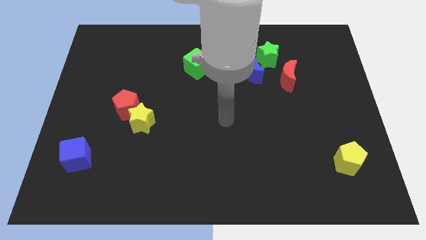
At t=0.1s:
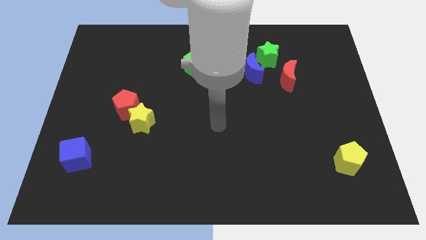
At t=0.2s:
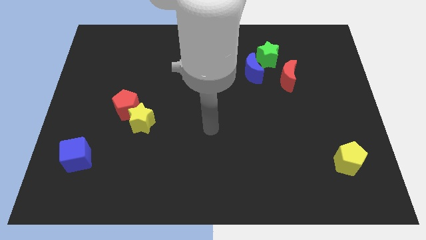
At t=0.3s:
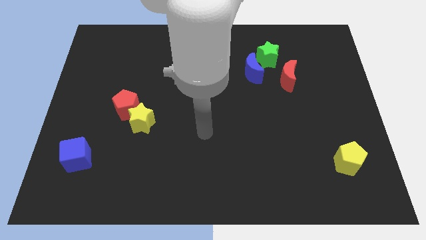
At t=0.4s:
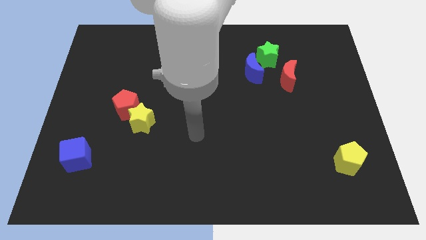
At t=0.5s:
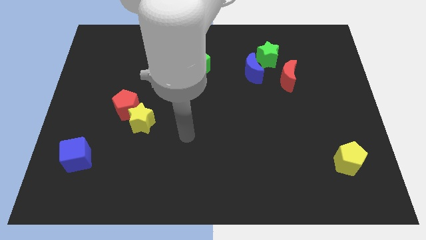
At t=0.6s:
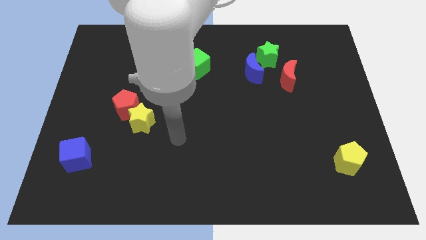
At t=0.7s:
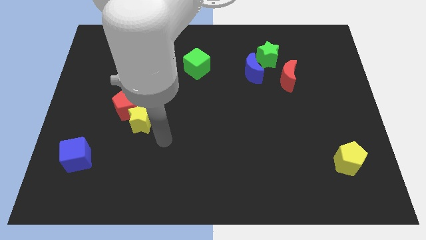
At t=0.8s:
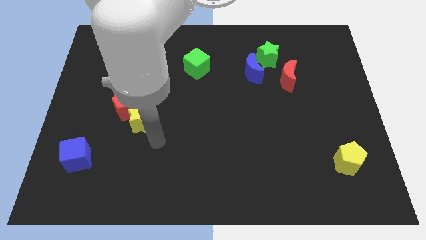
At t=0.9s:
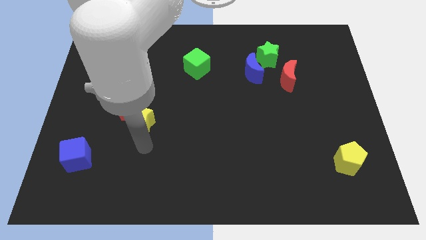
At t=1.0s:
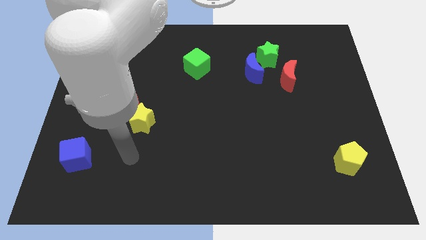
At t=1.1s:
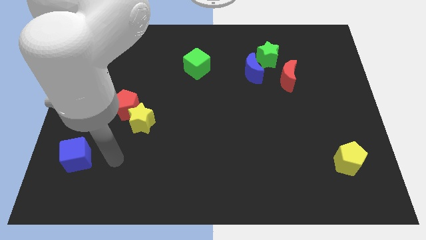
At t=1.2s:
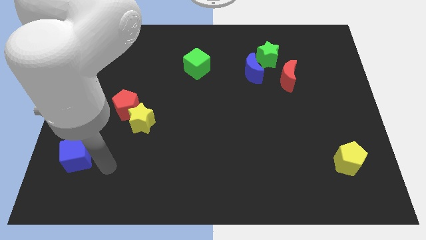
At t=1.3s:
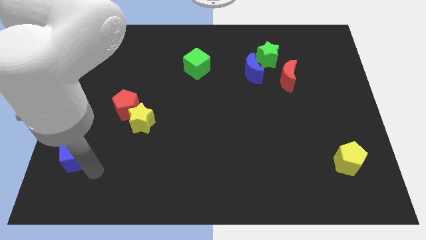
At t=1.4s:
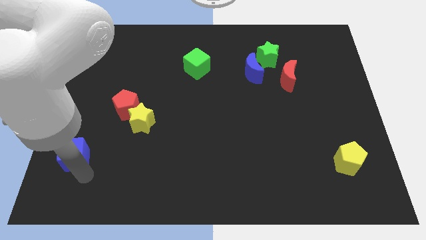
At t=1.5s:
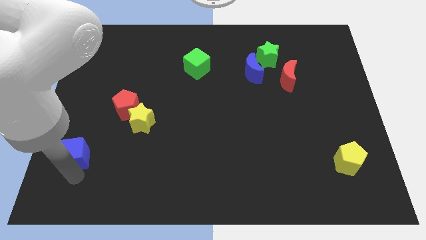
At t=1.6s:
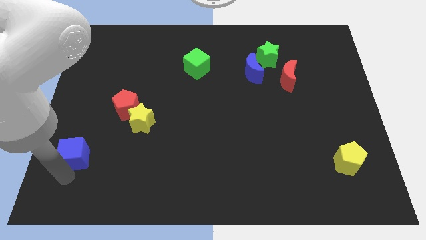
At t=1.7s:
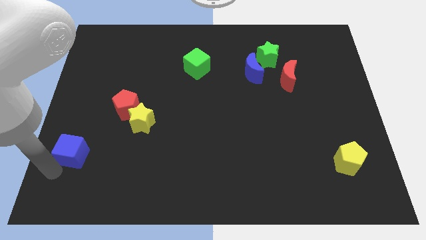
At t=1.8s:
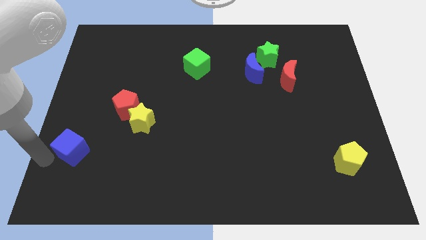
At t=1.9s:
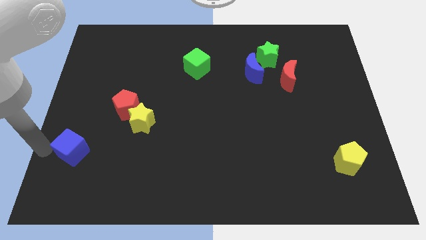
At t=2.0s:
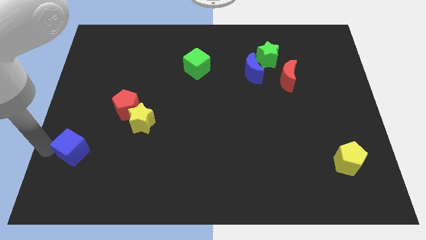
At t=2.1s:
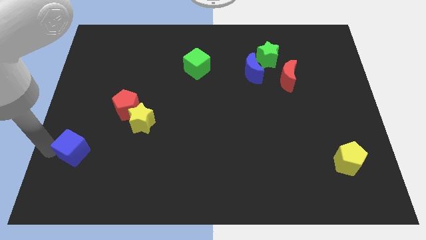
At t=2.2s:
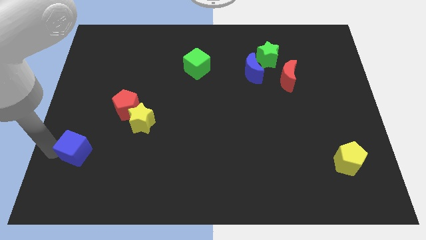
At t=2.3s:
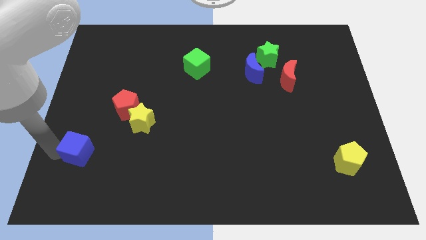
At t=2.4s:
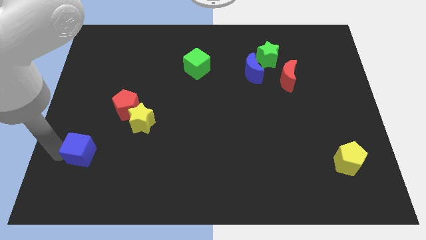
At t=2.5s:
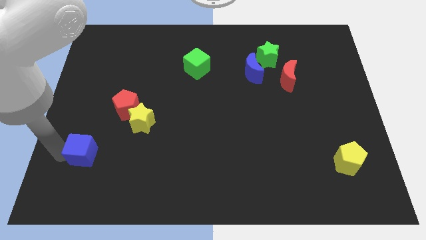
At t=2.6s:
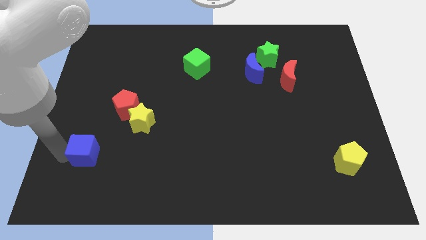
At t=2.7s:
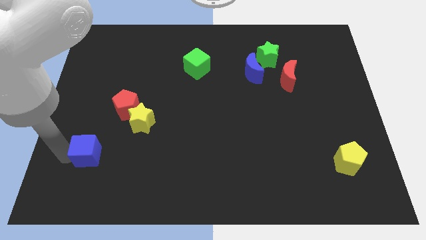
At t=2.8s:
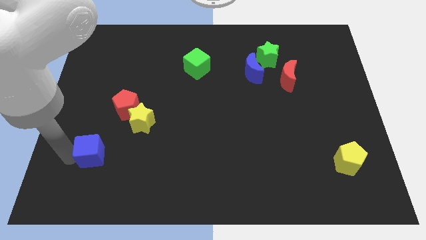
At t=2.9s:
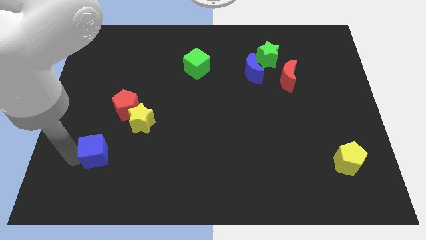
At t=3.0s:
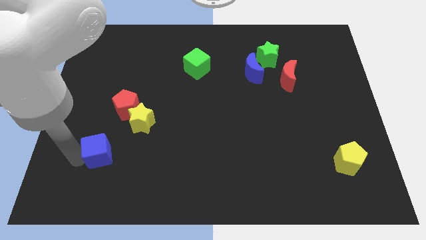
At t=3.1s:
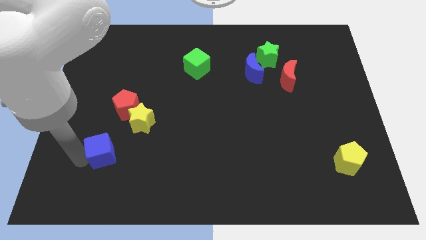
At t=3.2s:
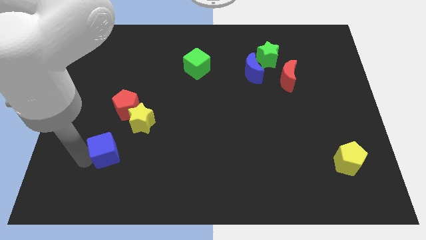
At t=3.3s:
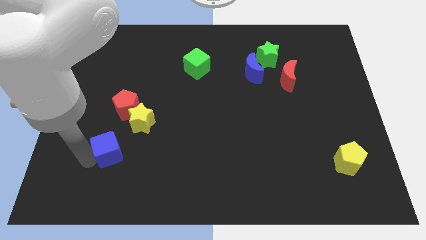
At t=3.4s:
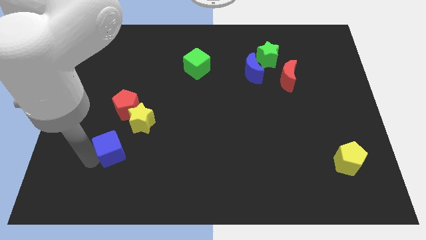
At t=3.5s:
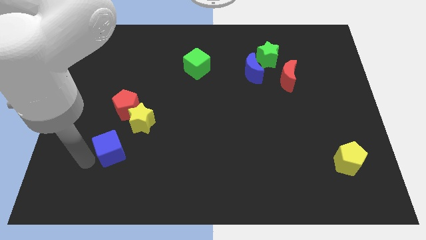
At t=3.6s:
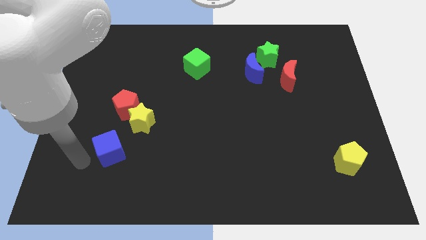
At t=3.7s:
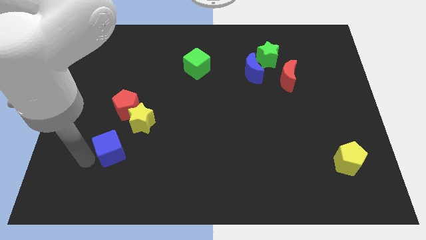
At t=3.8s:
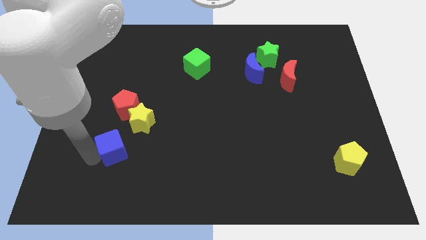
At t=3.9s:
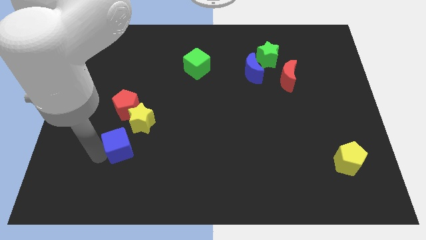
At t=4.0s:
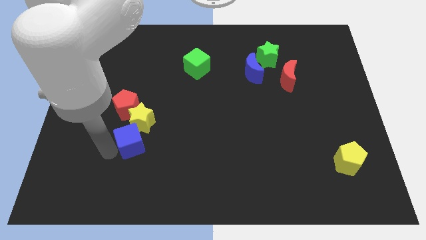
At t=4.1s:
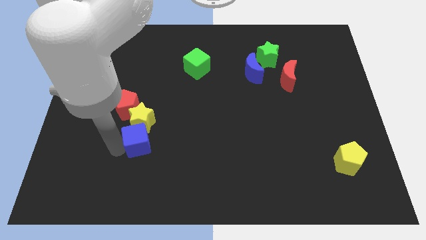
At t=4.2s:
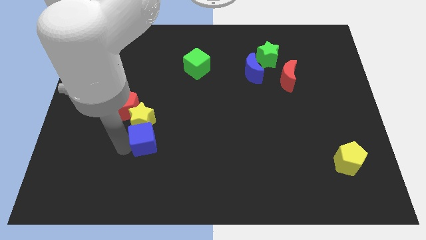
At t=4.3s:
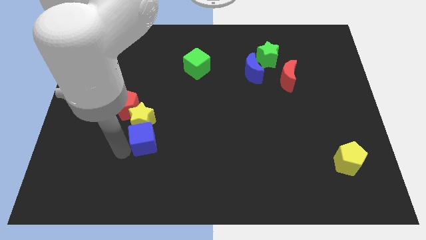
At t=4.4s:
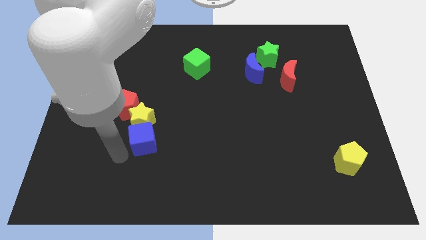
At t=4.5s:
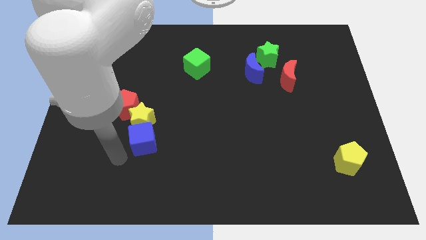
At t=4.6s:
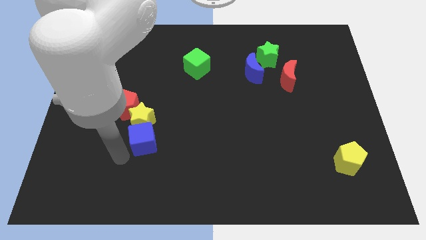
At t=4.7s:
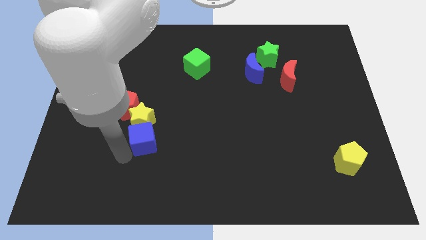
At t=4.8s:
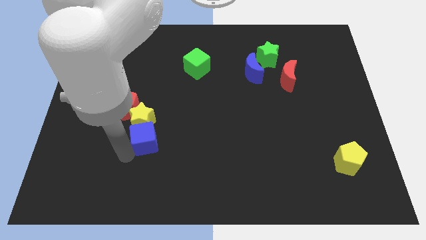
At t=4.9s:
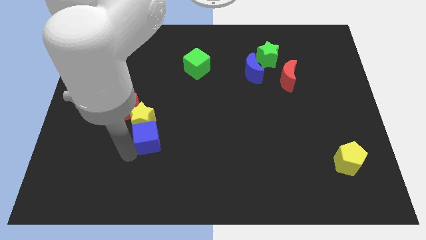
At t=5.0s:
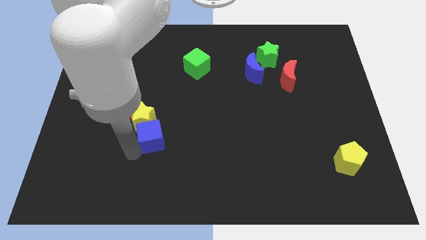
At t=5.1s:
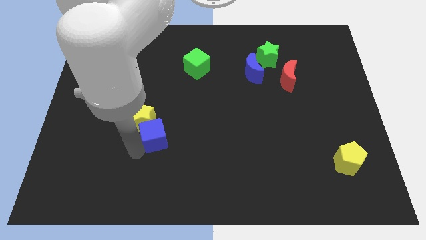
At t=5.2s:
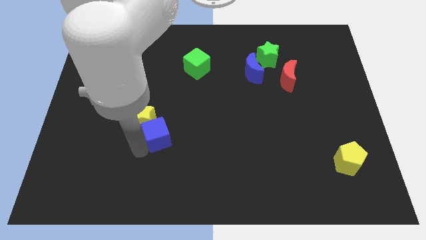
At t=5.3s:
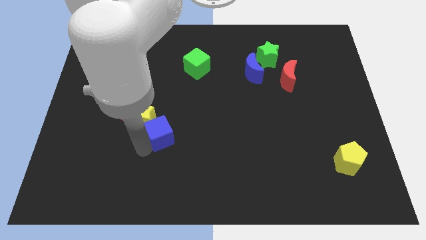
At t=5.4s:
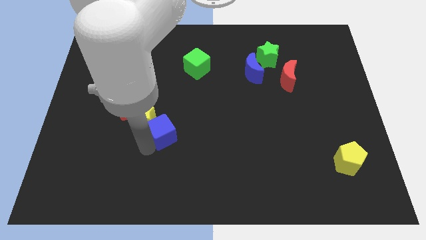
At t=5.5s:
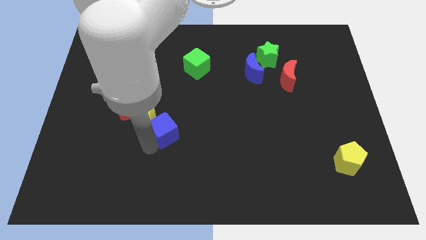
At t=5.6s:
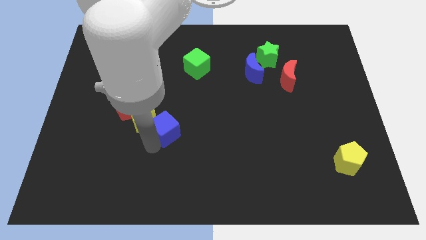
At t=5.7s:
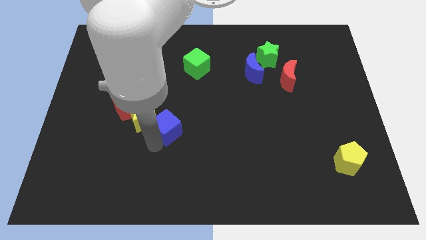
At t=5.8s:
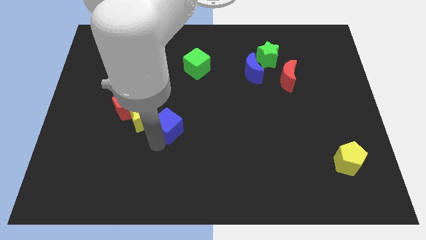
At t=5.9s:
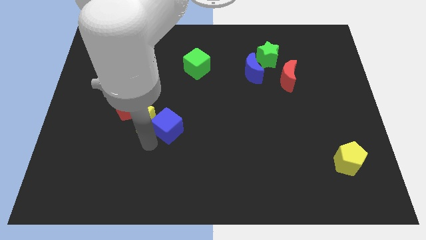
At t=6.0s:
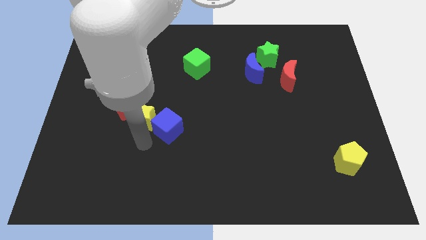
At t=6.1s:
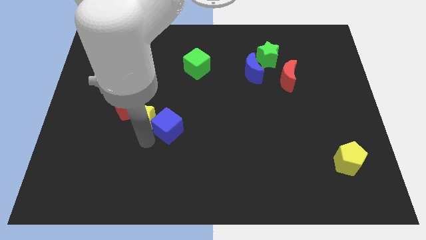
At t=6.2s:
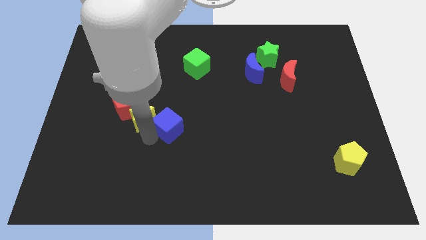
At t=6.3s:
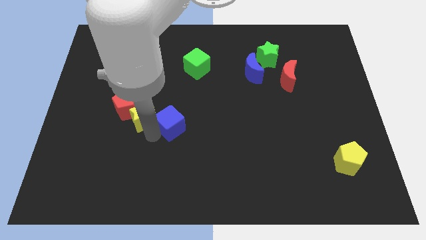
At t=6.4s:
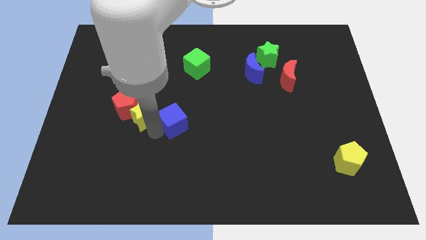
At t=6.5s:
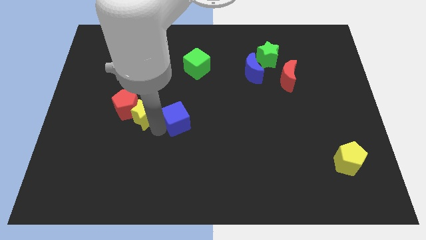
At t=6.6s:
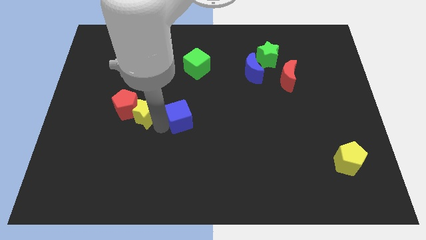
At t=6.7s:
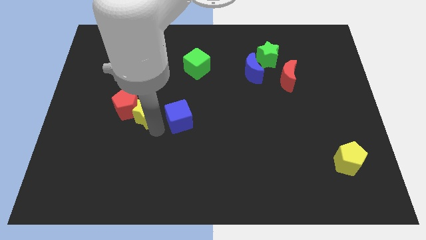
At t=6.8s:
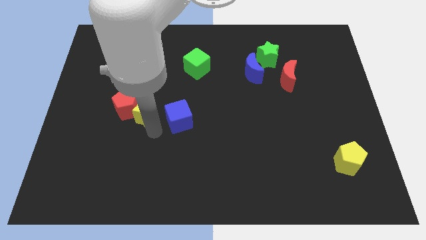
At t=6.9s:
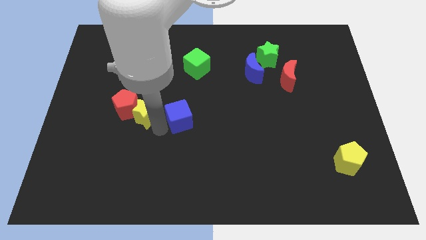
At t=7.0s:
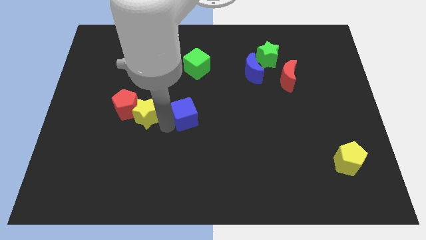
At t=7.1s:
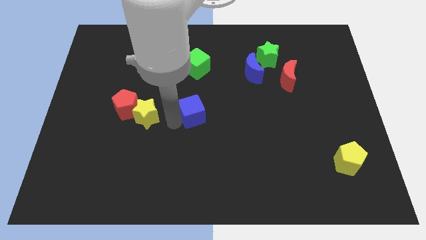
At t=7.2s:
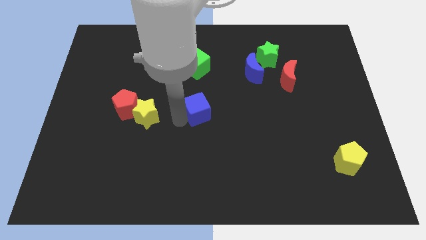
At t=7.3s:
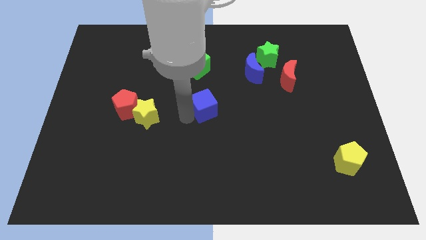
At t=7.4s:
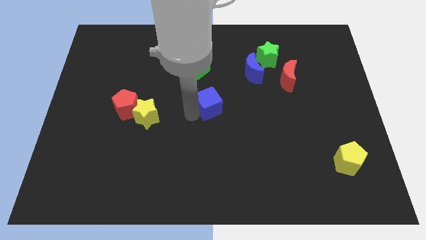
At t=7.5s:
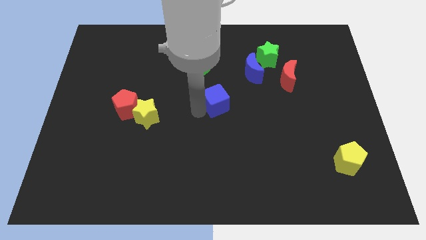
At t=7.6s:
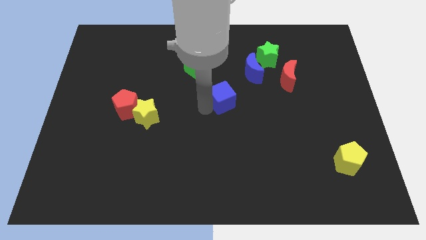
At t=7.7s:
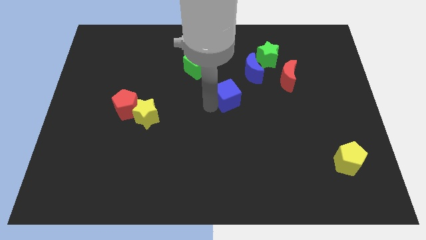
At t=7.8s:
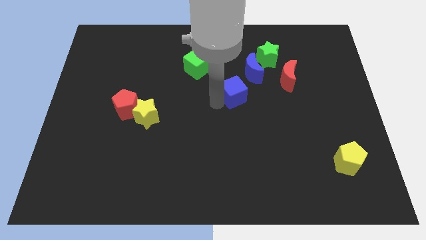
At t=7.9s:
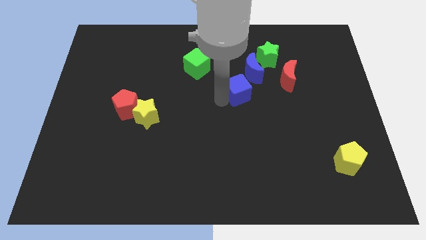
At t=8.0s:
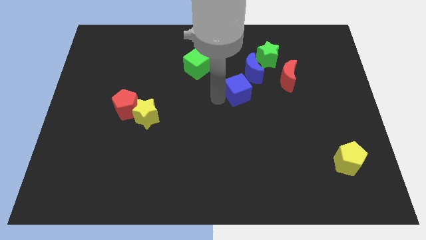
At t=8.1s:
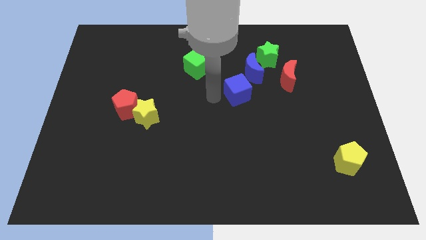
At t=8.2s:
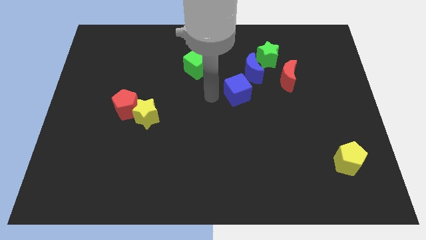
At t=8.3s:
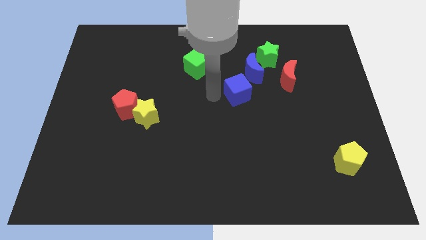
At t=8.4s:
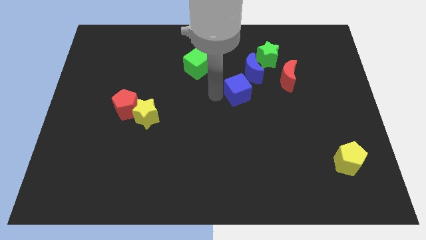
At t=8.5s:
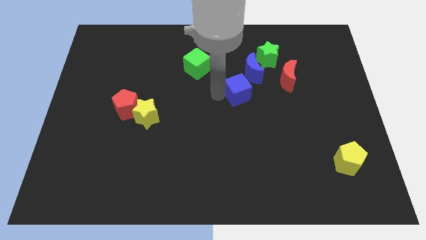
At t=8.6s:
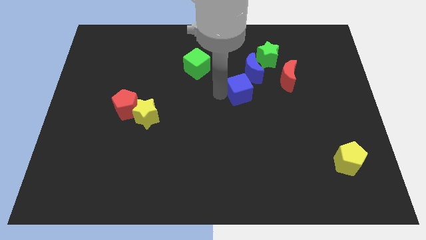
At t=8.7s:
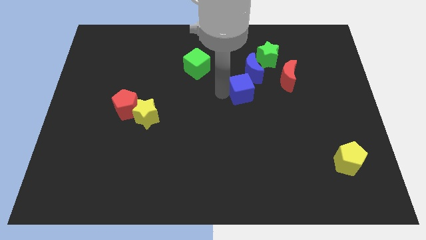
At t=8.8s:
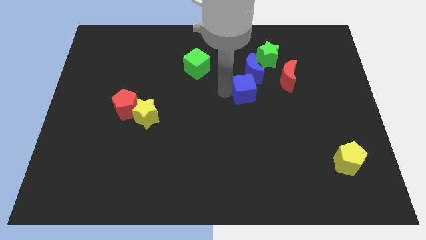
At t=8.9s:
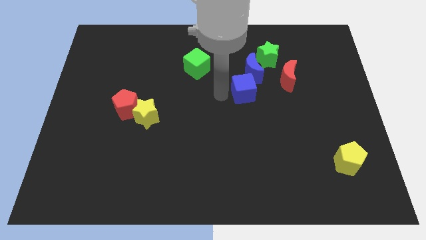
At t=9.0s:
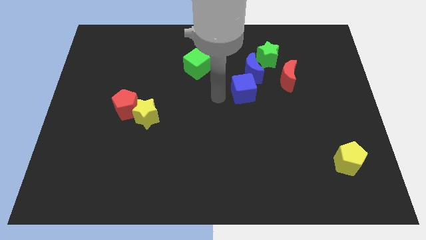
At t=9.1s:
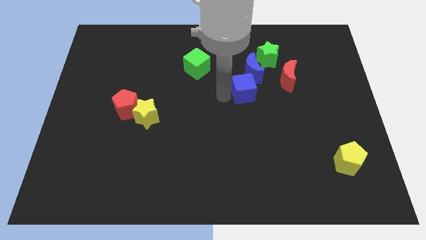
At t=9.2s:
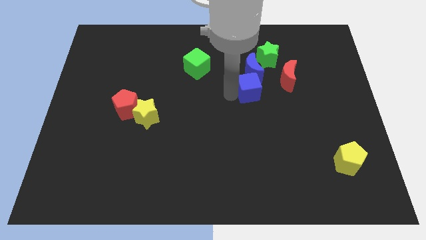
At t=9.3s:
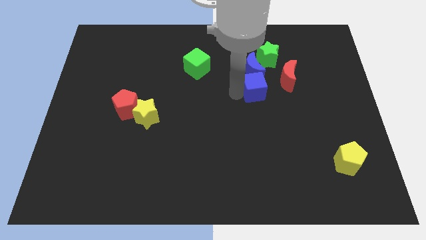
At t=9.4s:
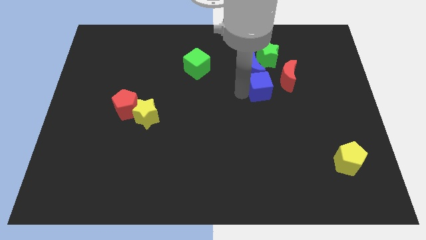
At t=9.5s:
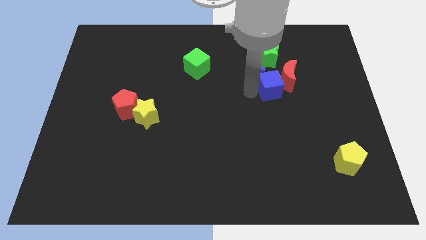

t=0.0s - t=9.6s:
slide the blue cube to the red moon
